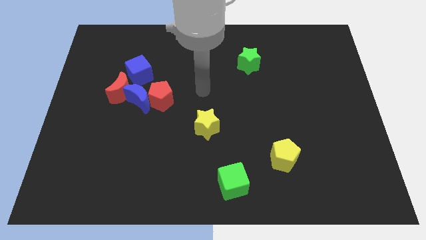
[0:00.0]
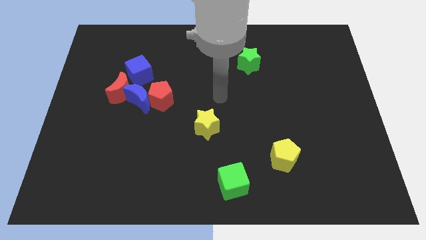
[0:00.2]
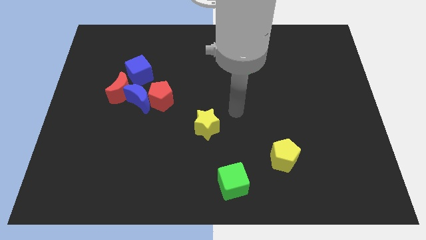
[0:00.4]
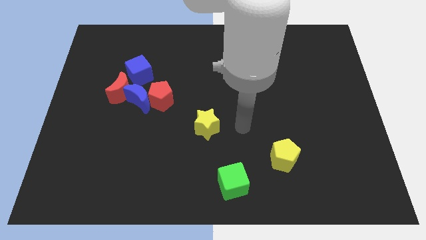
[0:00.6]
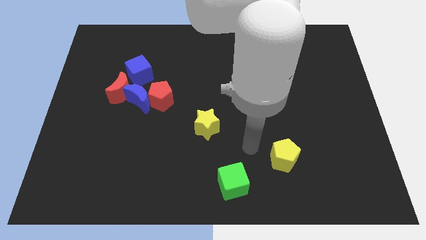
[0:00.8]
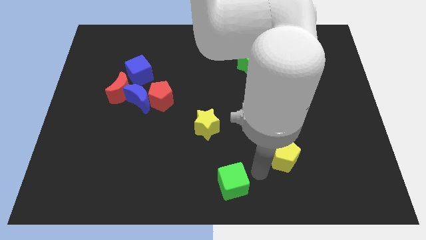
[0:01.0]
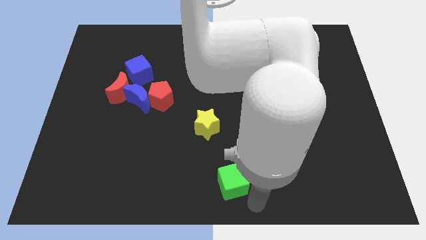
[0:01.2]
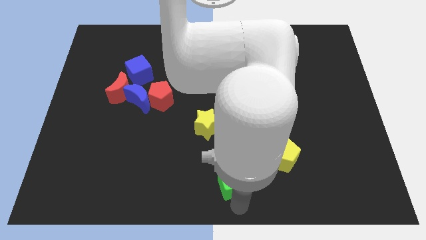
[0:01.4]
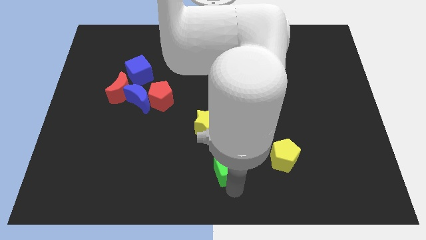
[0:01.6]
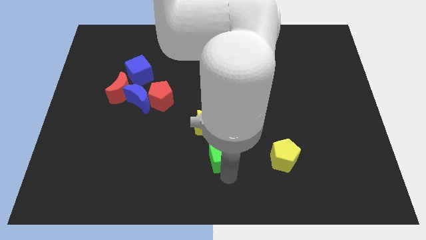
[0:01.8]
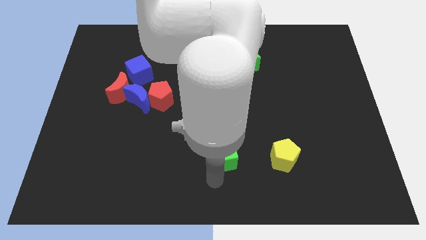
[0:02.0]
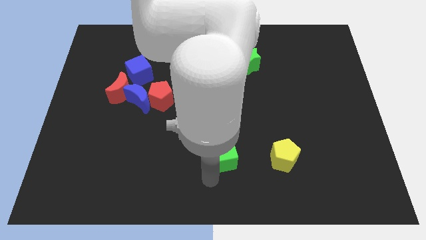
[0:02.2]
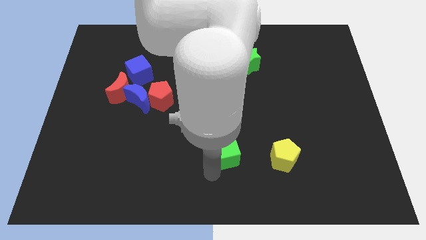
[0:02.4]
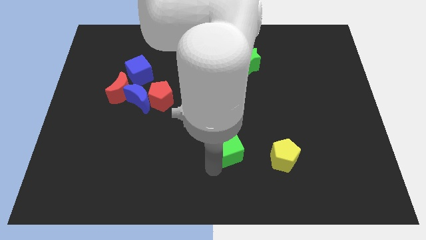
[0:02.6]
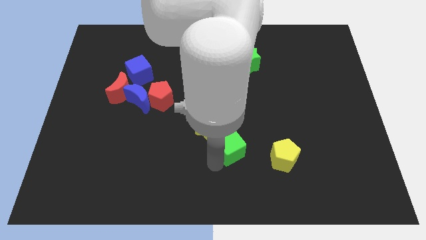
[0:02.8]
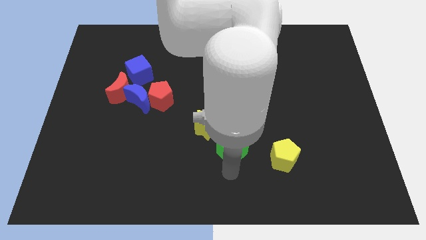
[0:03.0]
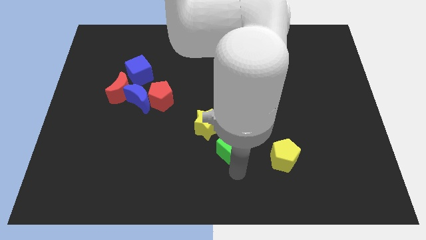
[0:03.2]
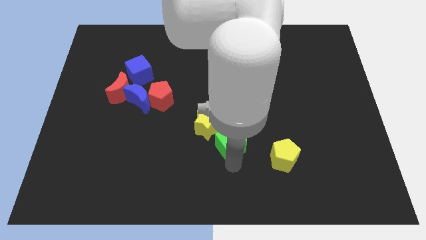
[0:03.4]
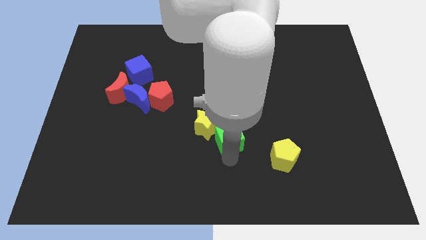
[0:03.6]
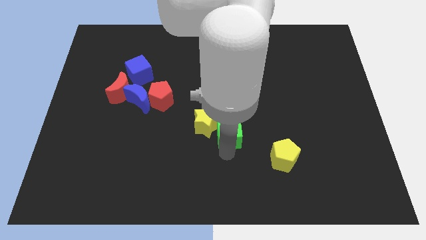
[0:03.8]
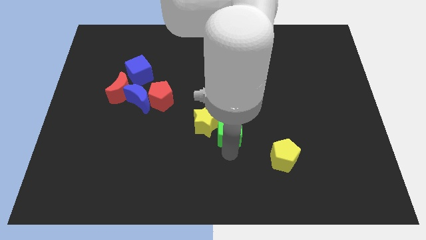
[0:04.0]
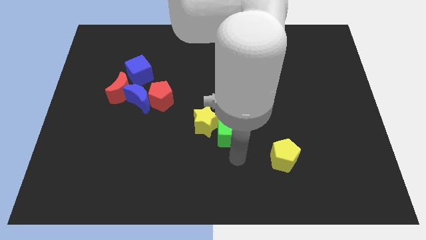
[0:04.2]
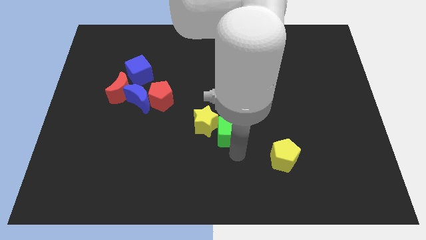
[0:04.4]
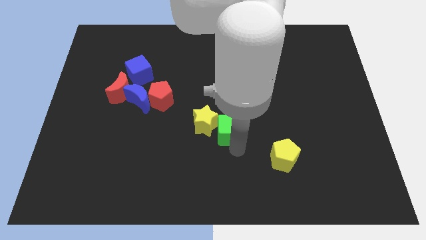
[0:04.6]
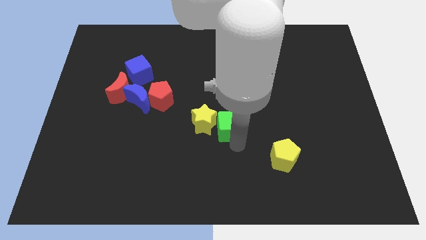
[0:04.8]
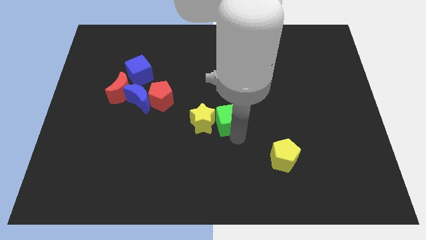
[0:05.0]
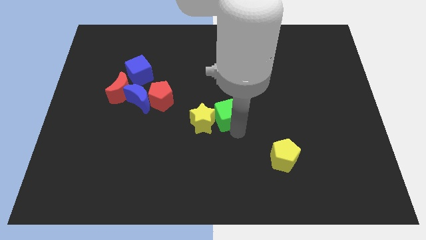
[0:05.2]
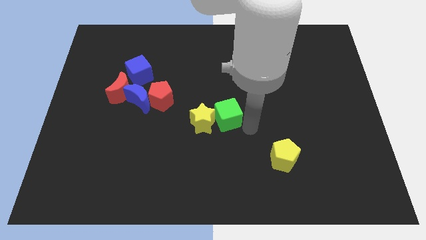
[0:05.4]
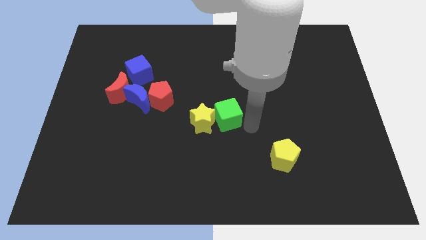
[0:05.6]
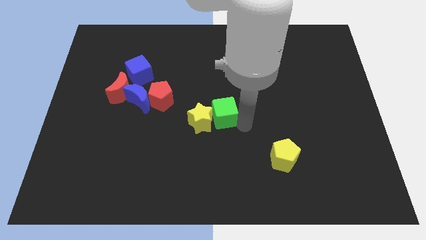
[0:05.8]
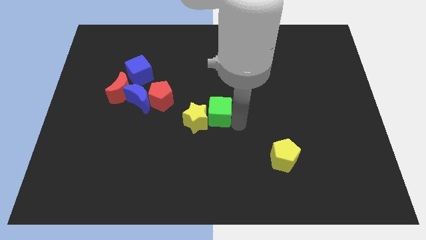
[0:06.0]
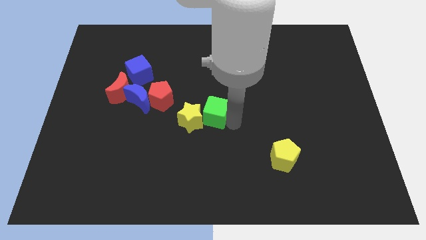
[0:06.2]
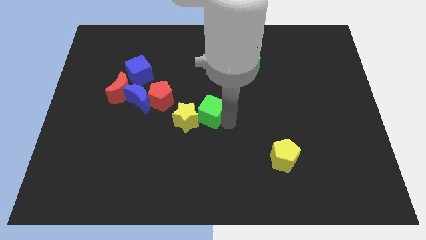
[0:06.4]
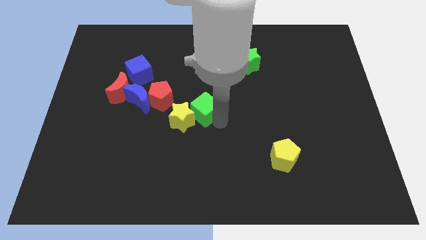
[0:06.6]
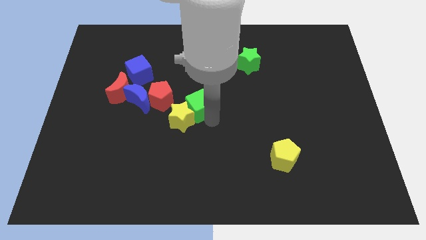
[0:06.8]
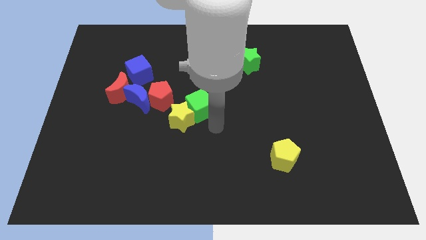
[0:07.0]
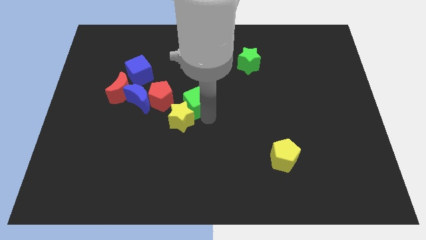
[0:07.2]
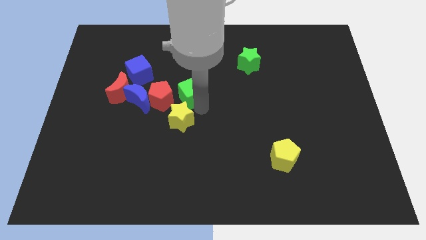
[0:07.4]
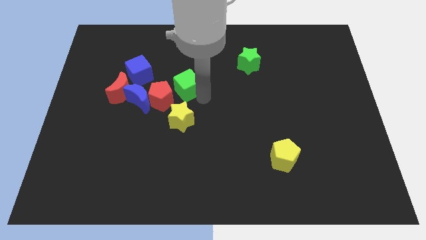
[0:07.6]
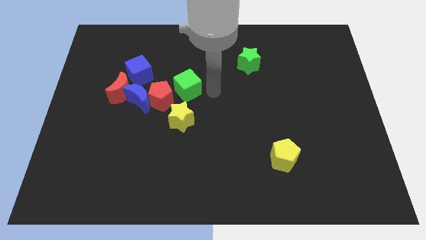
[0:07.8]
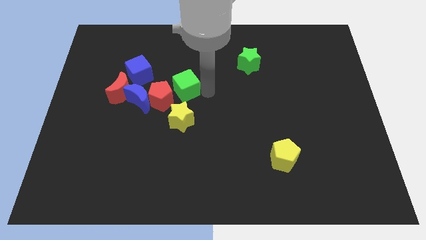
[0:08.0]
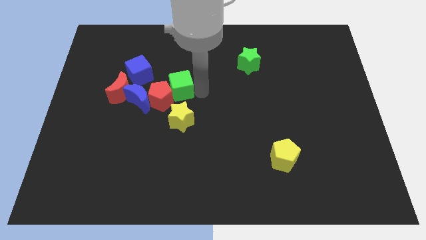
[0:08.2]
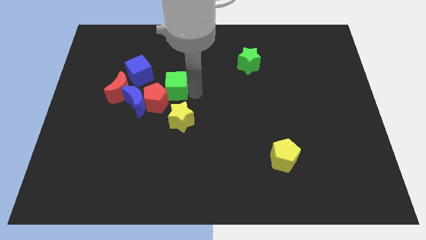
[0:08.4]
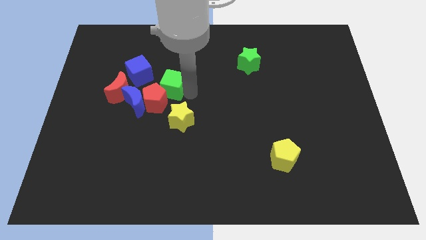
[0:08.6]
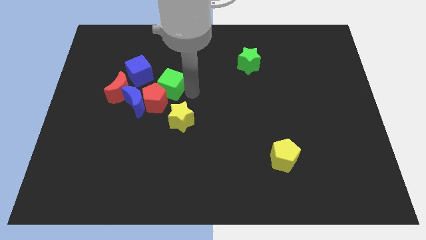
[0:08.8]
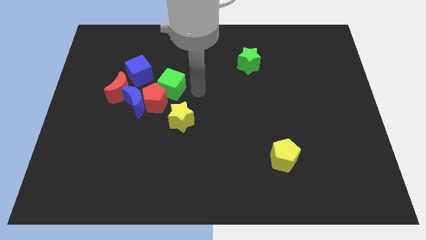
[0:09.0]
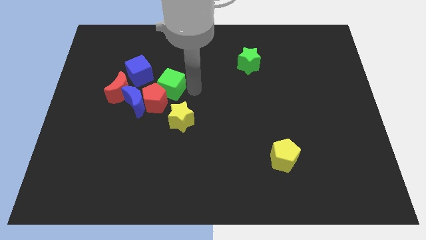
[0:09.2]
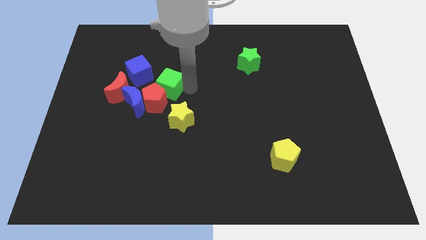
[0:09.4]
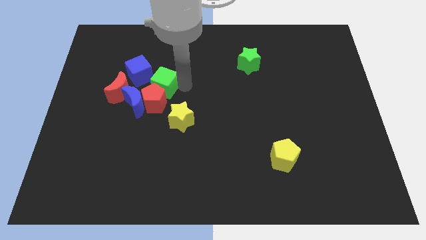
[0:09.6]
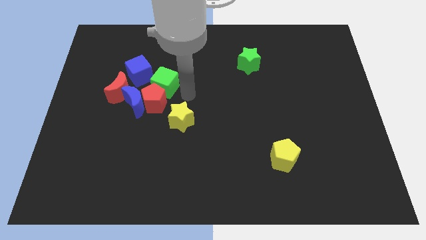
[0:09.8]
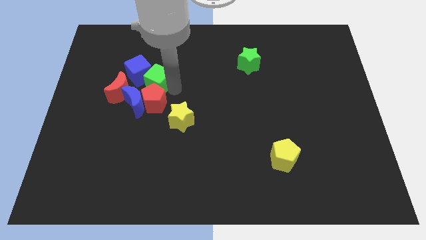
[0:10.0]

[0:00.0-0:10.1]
put the green cube next to the blue cube

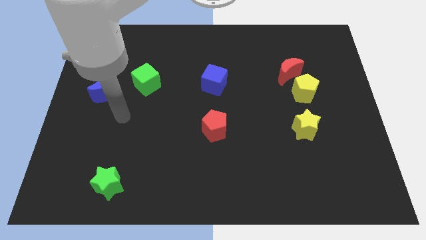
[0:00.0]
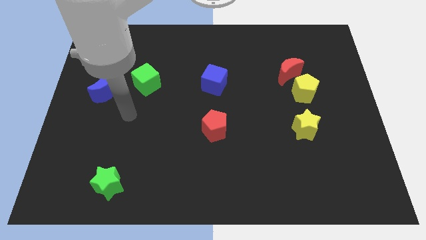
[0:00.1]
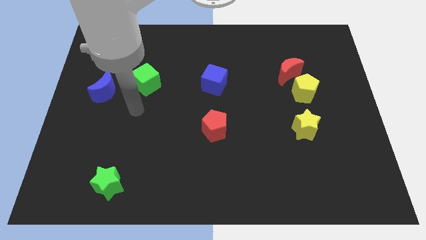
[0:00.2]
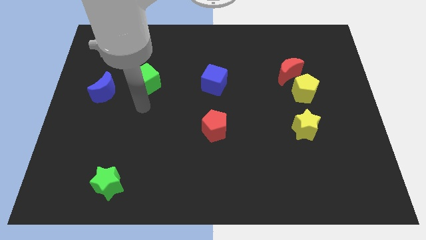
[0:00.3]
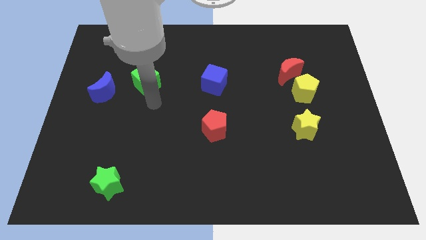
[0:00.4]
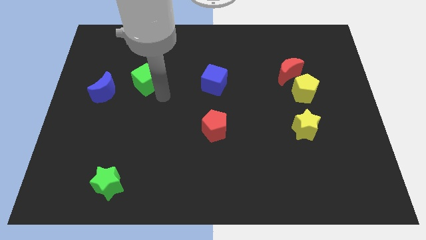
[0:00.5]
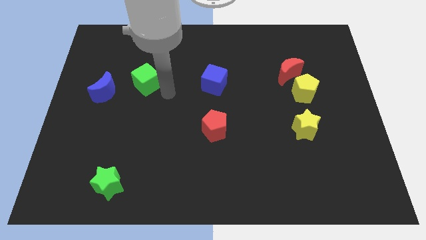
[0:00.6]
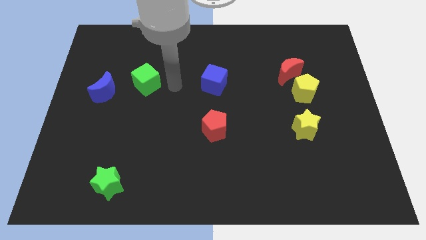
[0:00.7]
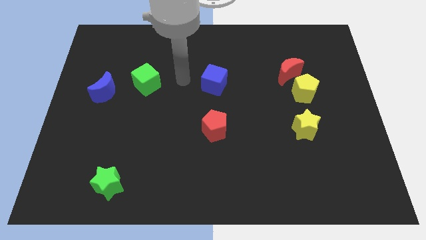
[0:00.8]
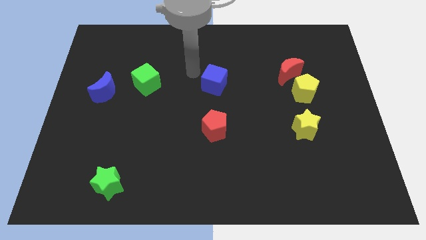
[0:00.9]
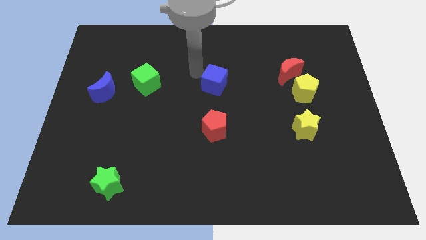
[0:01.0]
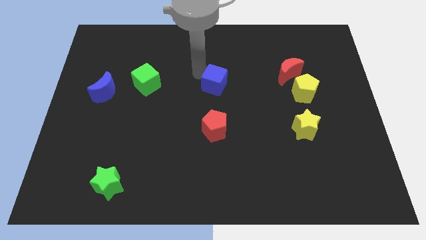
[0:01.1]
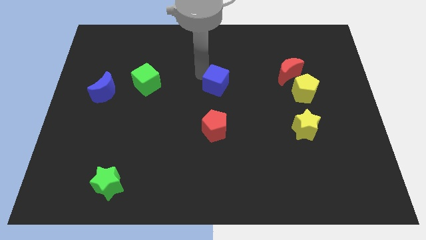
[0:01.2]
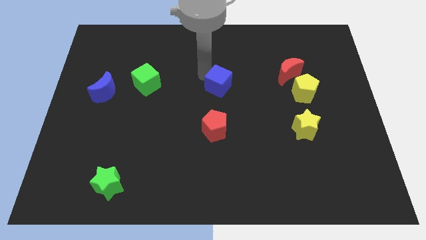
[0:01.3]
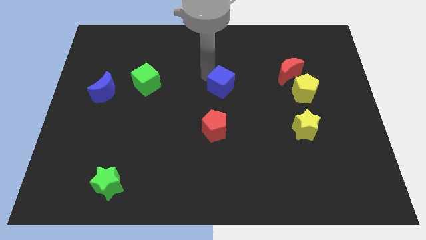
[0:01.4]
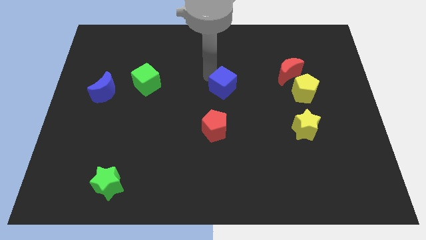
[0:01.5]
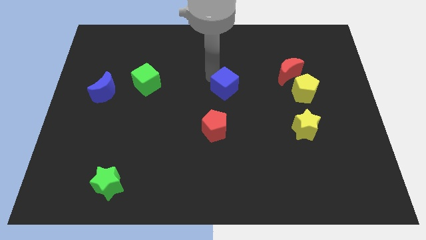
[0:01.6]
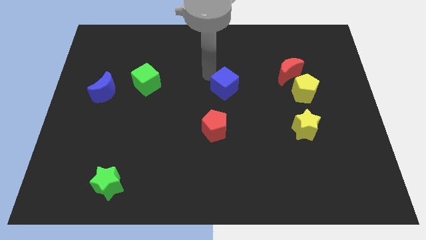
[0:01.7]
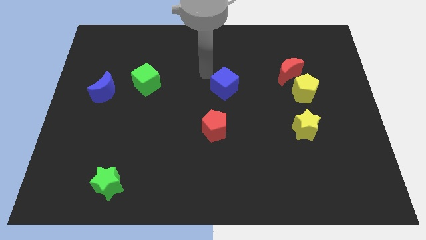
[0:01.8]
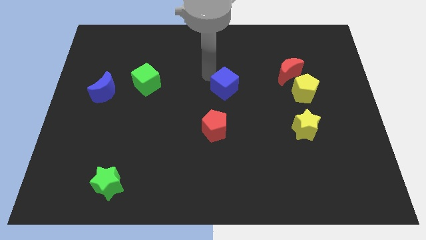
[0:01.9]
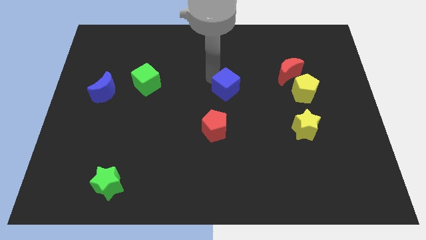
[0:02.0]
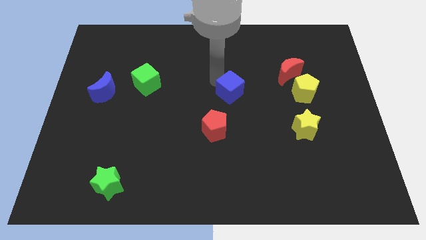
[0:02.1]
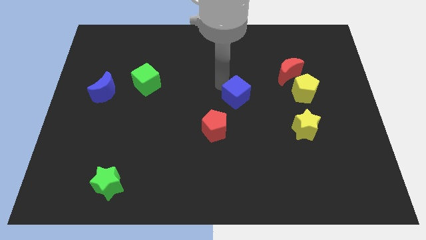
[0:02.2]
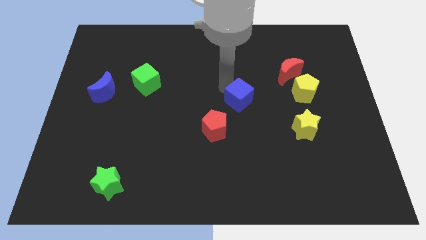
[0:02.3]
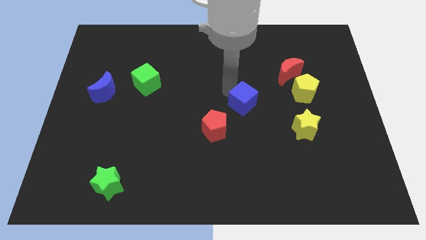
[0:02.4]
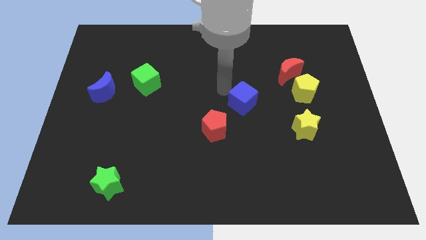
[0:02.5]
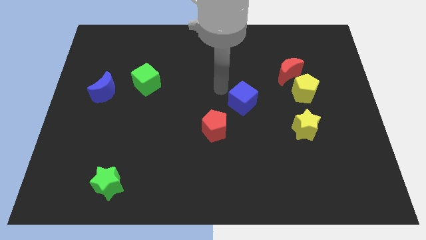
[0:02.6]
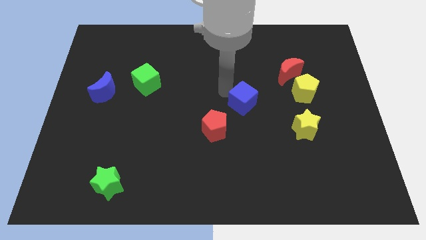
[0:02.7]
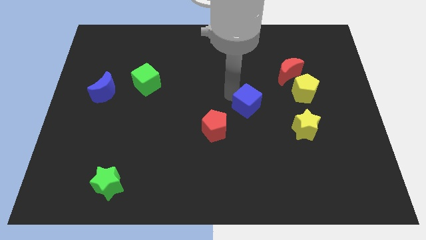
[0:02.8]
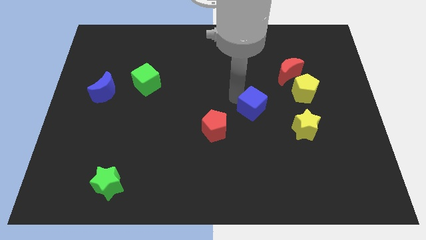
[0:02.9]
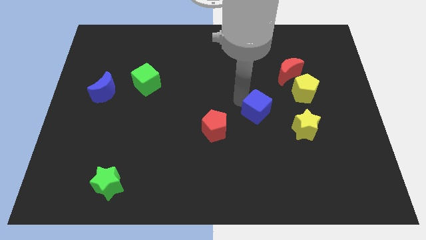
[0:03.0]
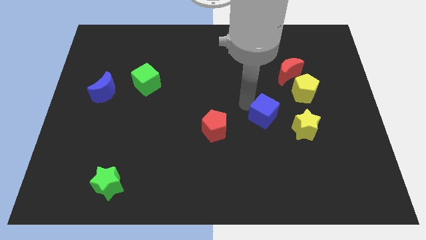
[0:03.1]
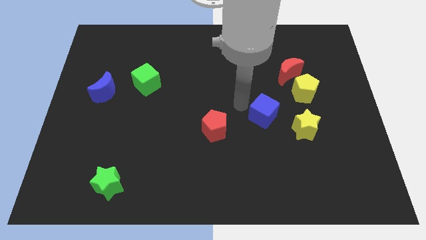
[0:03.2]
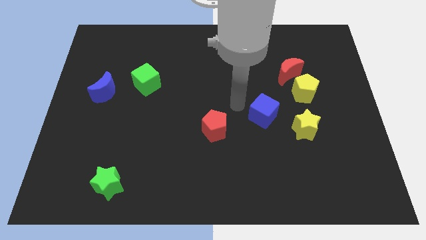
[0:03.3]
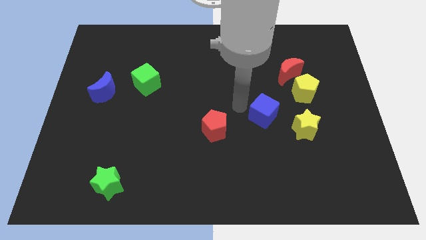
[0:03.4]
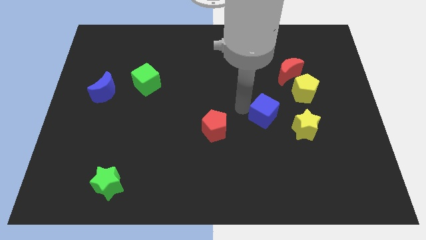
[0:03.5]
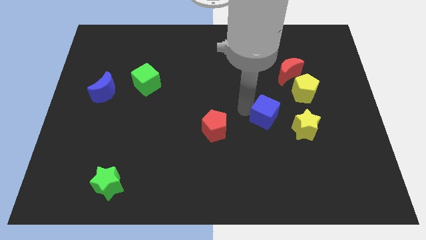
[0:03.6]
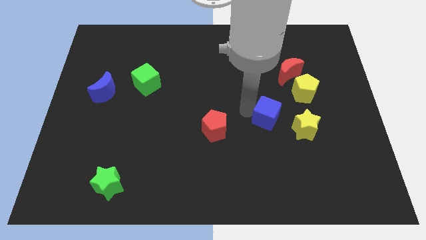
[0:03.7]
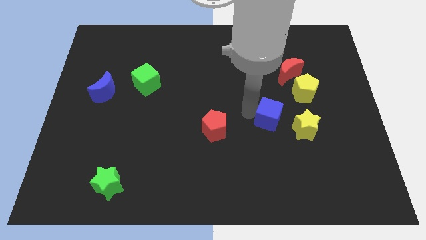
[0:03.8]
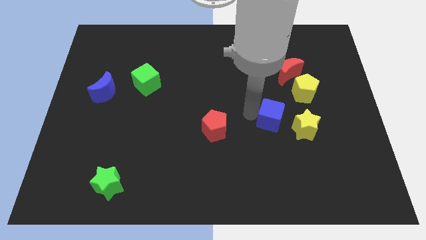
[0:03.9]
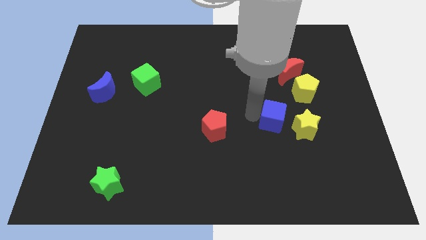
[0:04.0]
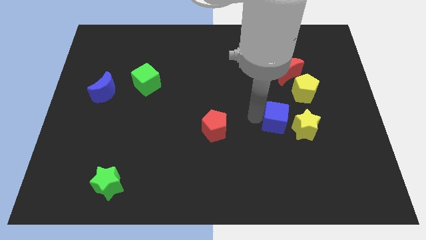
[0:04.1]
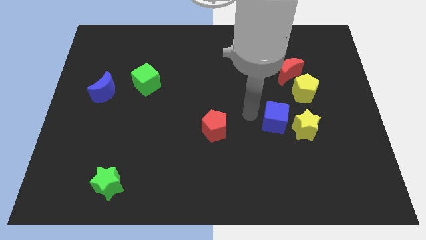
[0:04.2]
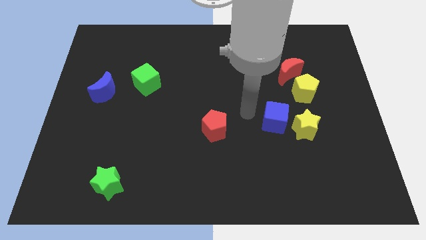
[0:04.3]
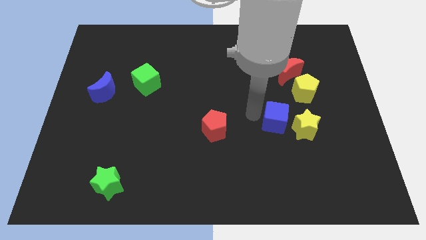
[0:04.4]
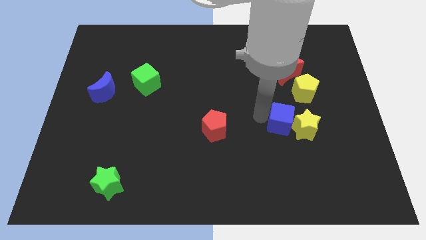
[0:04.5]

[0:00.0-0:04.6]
push the blue cube towards the yellow star
